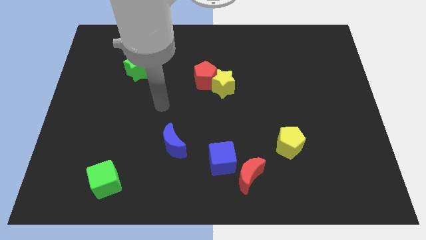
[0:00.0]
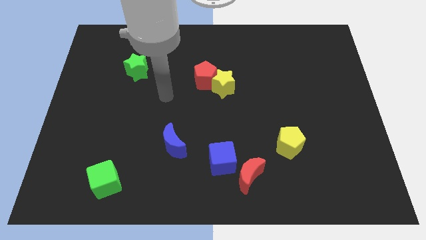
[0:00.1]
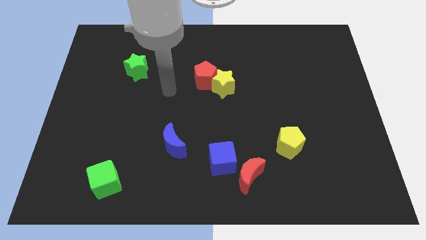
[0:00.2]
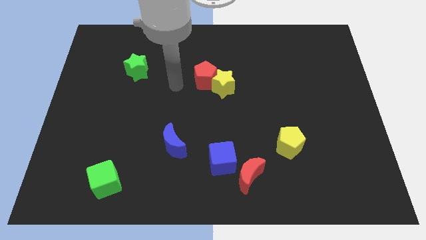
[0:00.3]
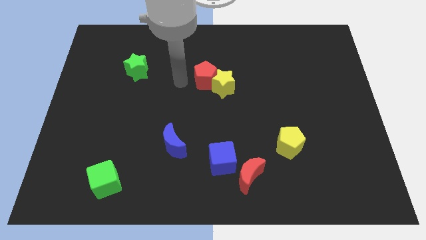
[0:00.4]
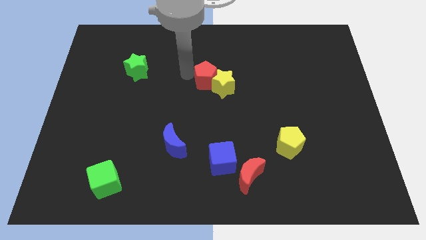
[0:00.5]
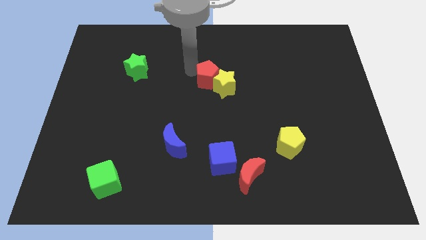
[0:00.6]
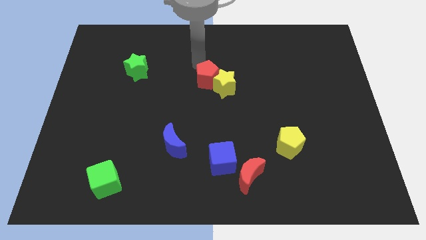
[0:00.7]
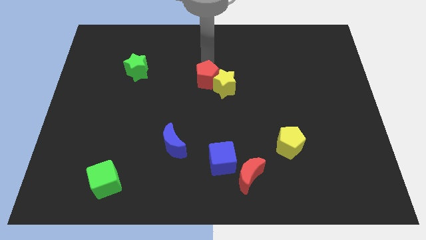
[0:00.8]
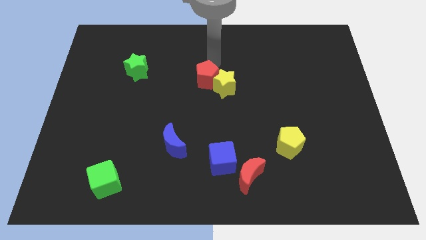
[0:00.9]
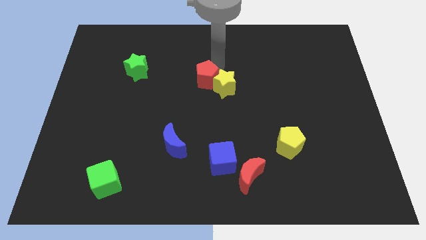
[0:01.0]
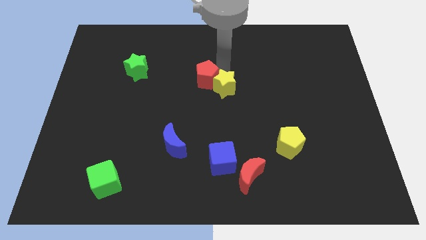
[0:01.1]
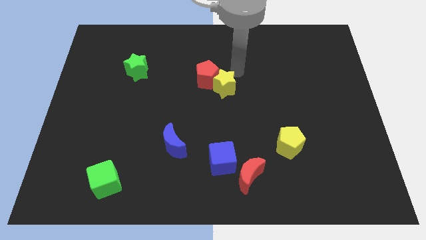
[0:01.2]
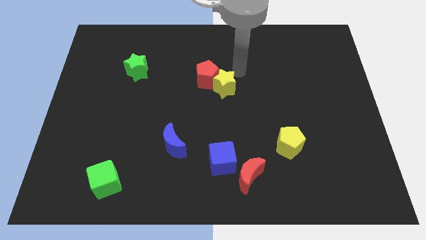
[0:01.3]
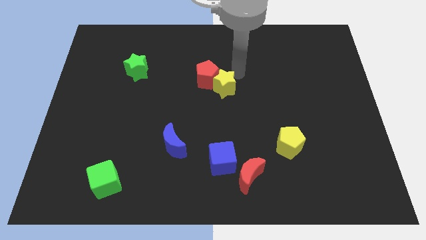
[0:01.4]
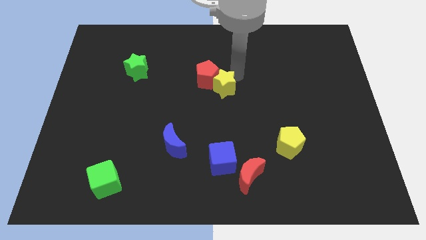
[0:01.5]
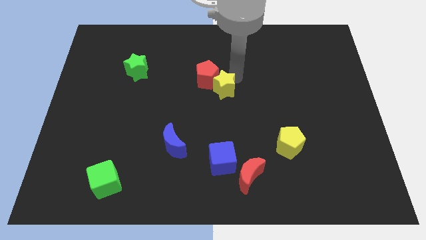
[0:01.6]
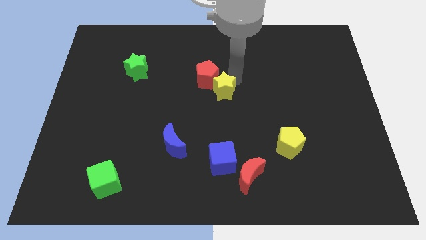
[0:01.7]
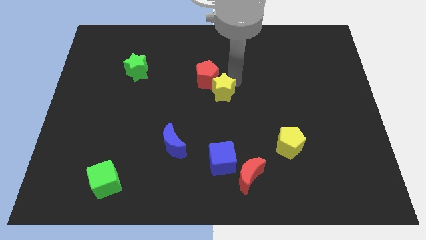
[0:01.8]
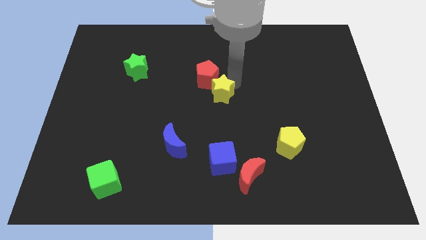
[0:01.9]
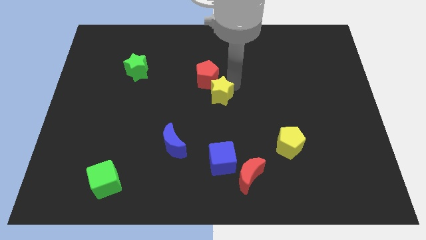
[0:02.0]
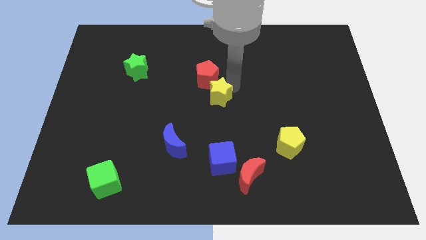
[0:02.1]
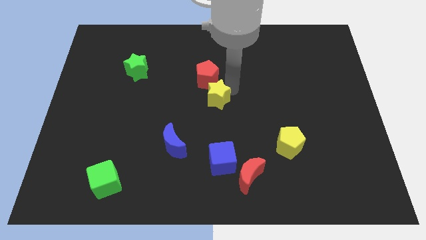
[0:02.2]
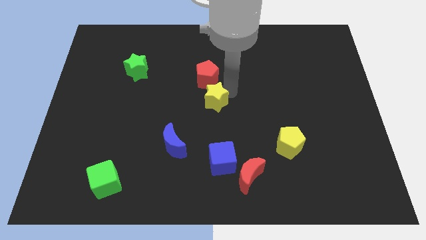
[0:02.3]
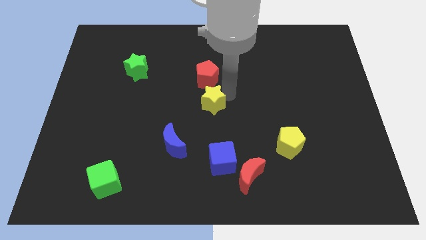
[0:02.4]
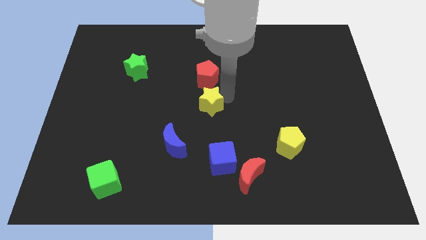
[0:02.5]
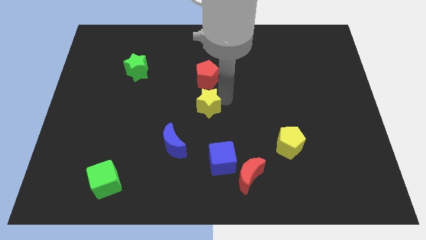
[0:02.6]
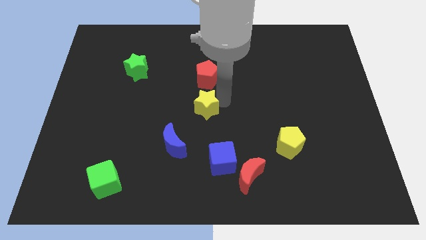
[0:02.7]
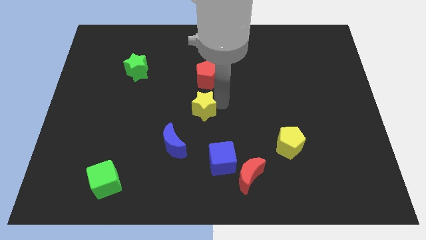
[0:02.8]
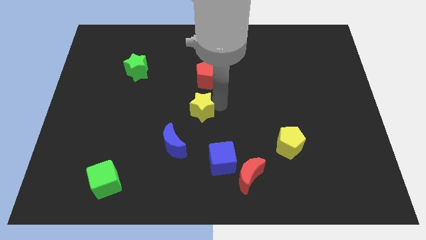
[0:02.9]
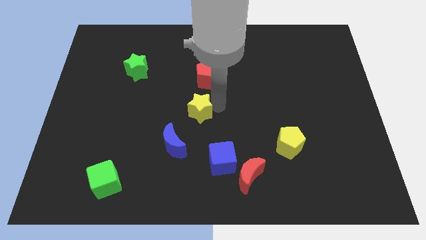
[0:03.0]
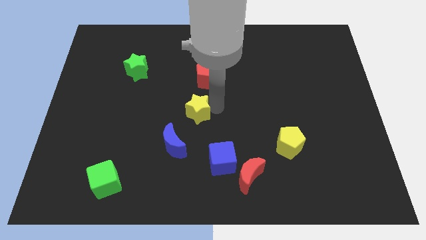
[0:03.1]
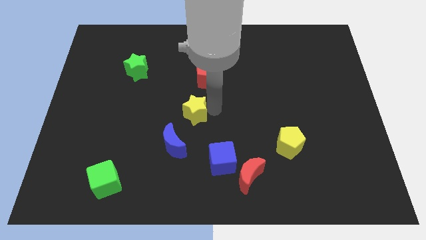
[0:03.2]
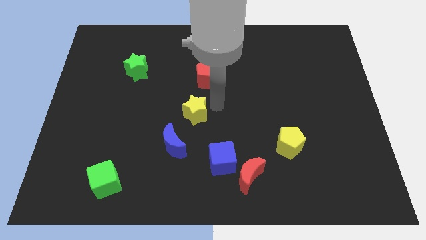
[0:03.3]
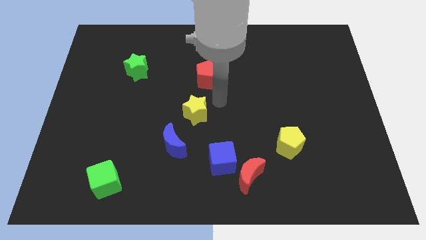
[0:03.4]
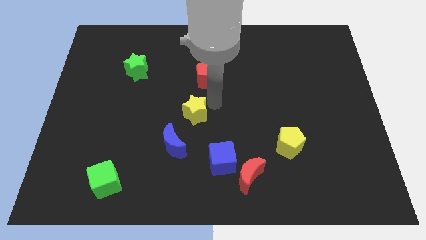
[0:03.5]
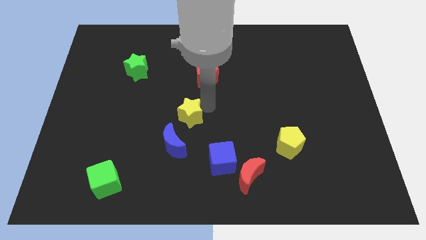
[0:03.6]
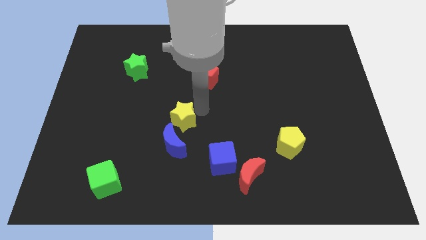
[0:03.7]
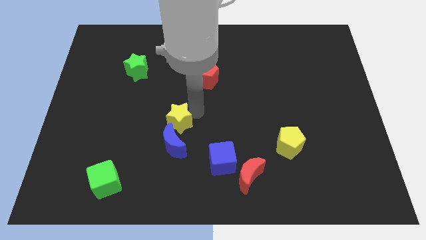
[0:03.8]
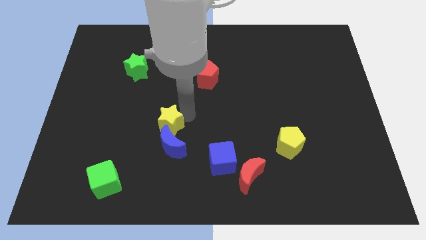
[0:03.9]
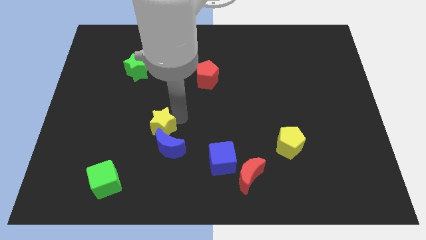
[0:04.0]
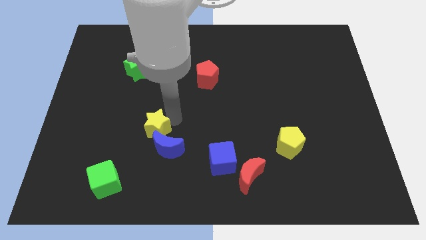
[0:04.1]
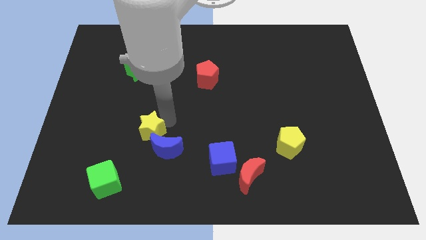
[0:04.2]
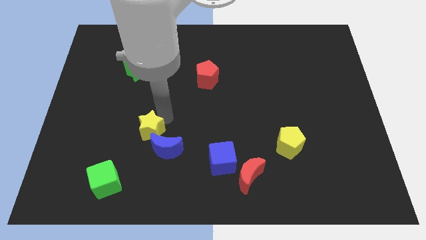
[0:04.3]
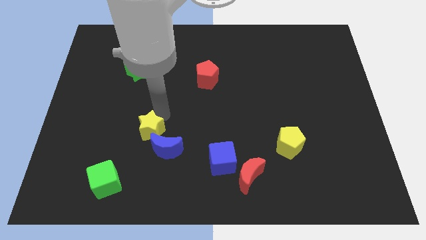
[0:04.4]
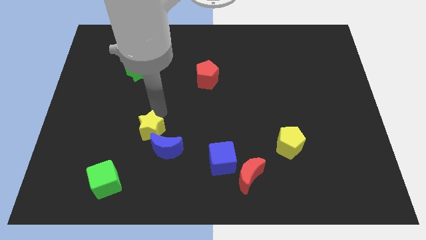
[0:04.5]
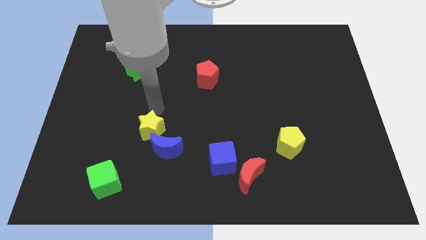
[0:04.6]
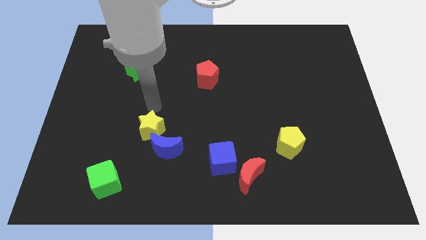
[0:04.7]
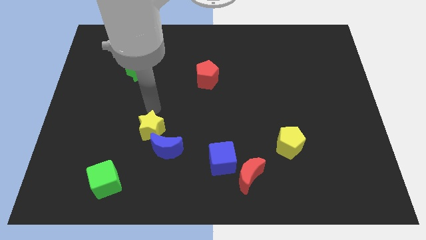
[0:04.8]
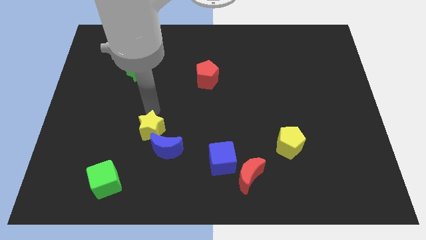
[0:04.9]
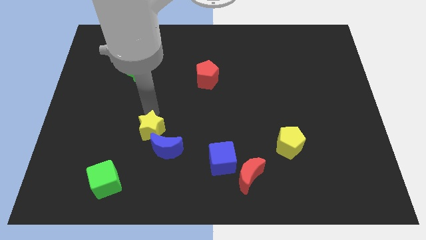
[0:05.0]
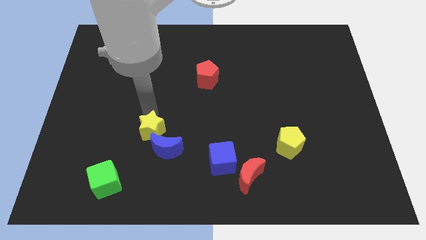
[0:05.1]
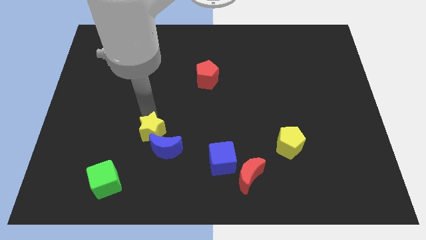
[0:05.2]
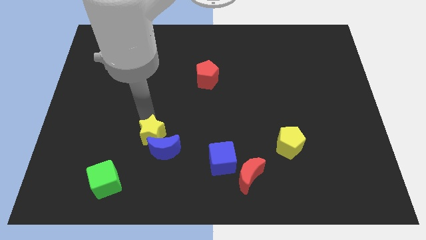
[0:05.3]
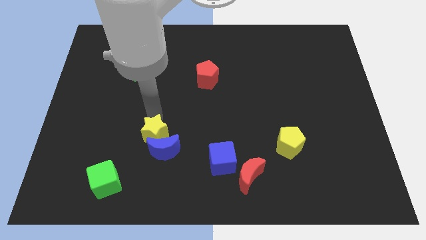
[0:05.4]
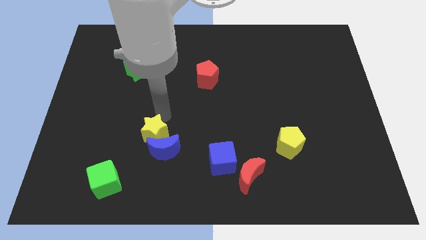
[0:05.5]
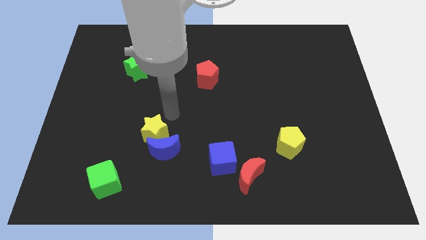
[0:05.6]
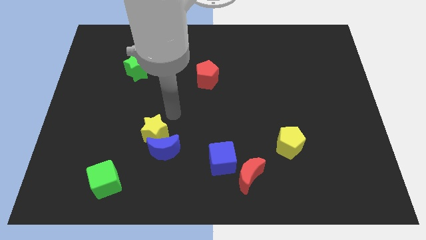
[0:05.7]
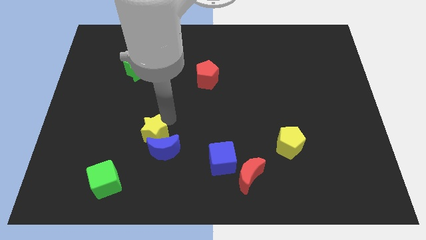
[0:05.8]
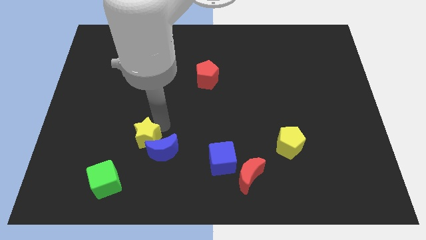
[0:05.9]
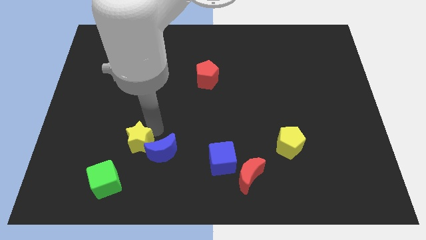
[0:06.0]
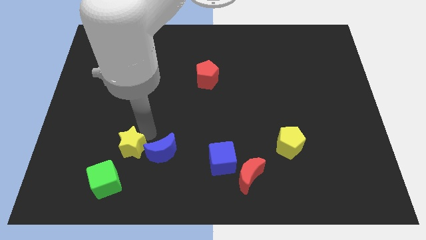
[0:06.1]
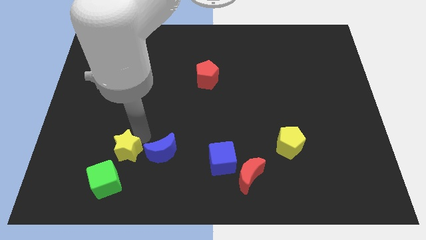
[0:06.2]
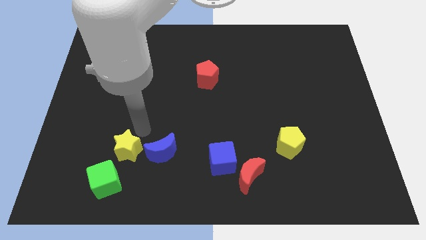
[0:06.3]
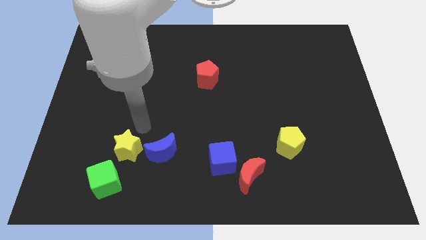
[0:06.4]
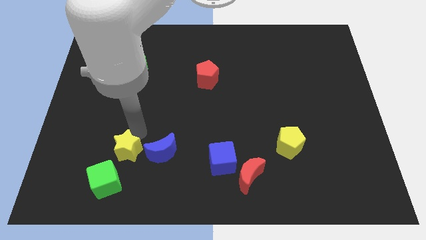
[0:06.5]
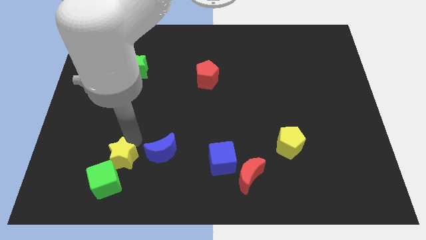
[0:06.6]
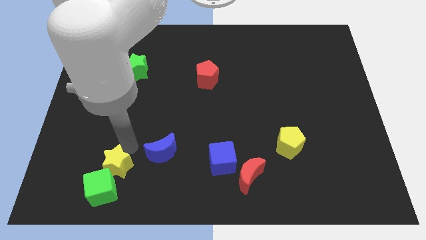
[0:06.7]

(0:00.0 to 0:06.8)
push the yellow star towards the green cube

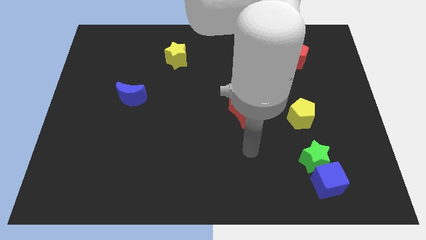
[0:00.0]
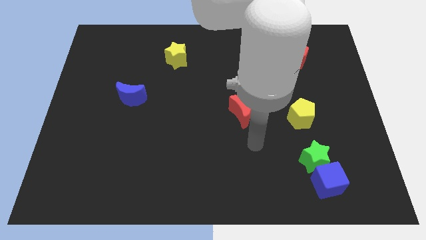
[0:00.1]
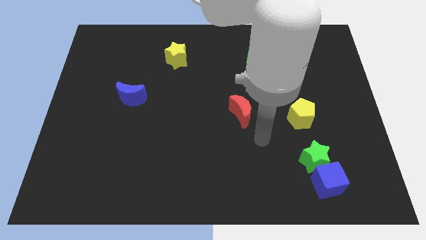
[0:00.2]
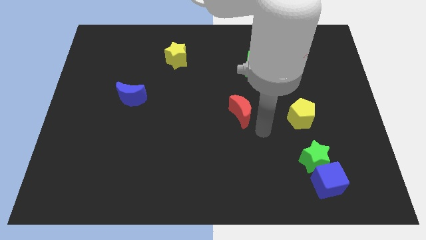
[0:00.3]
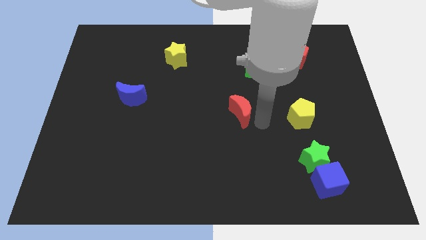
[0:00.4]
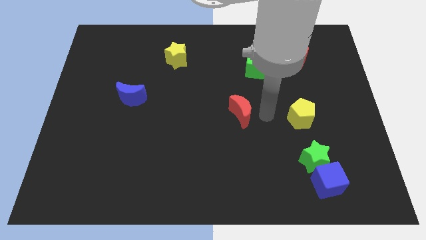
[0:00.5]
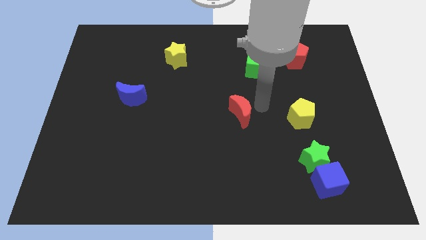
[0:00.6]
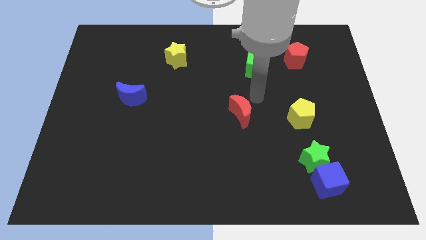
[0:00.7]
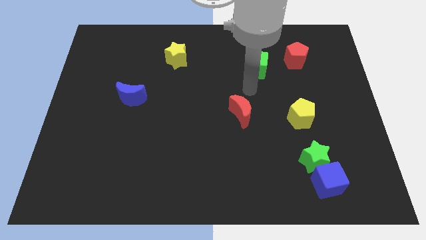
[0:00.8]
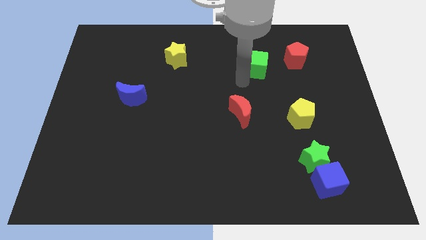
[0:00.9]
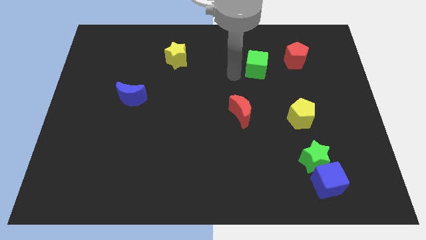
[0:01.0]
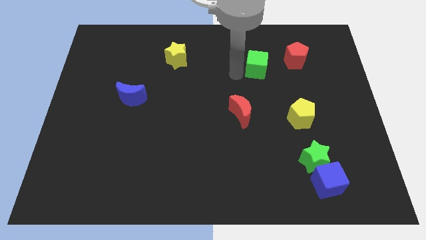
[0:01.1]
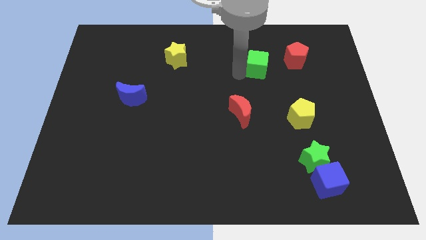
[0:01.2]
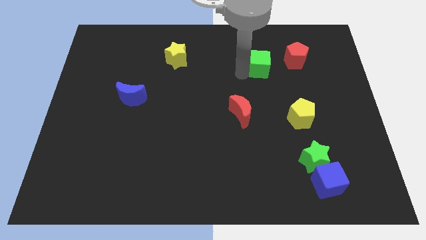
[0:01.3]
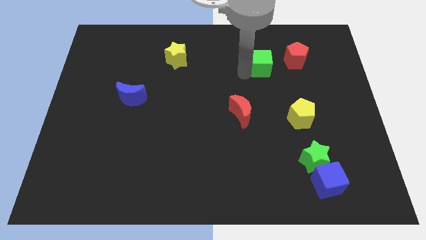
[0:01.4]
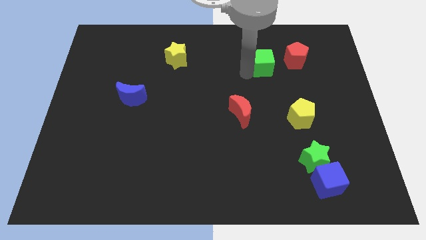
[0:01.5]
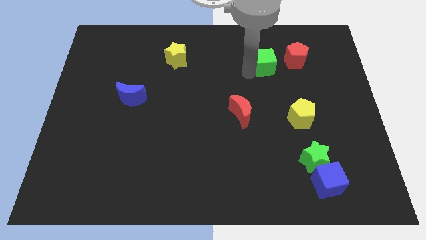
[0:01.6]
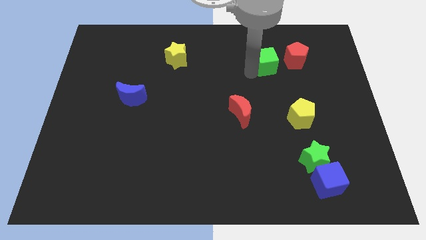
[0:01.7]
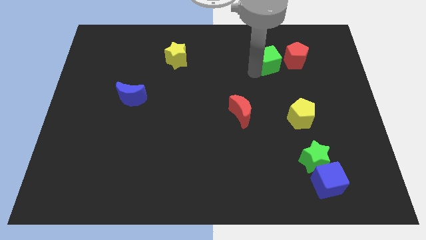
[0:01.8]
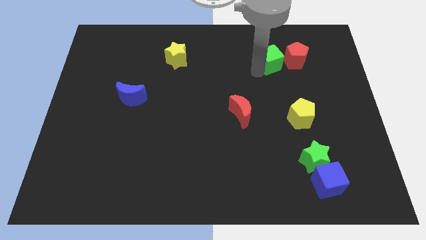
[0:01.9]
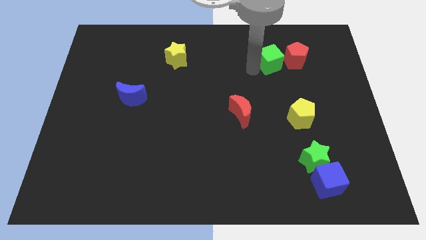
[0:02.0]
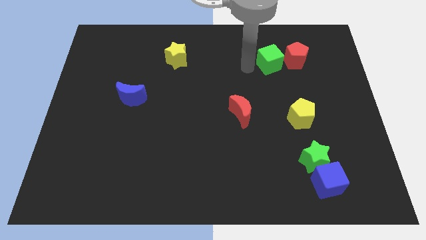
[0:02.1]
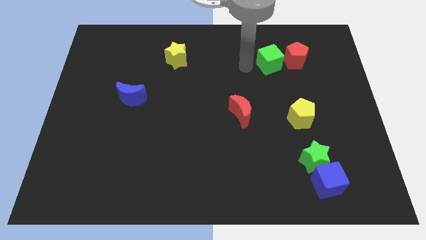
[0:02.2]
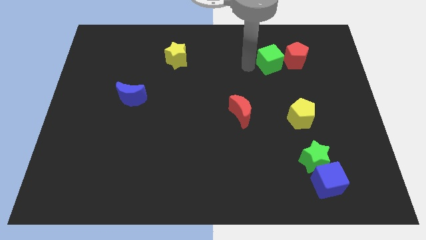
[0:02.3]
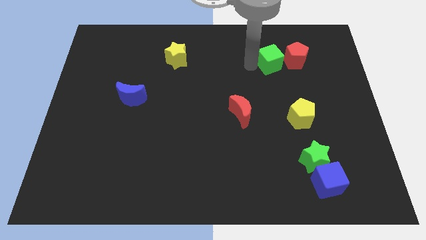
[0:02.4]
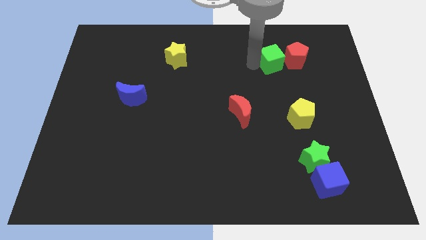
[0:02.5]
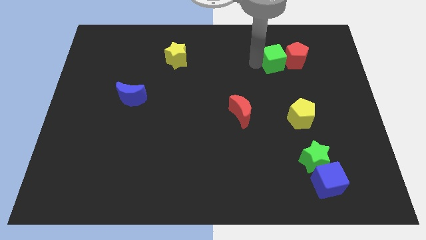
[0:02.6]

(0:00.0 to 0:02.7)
push the green cube towards the red pentagon
